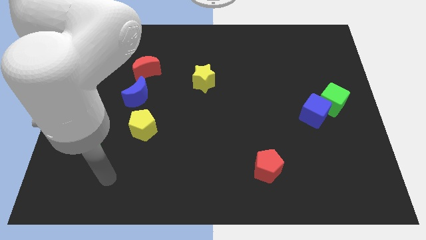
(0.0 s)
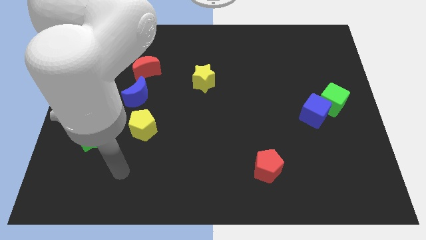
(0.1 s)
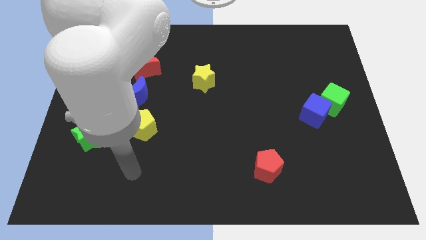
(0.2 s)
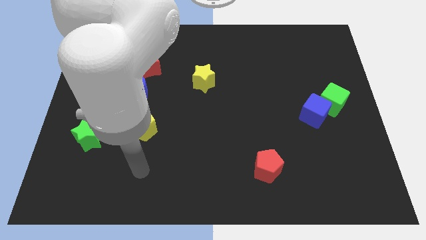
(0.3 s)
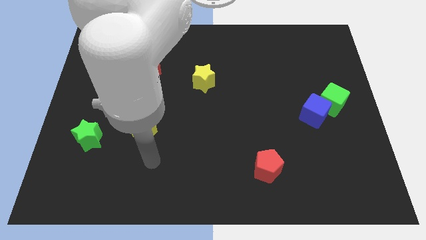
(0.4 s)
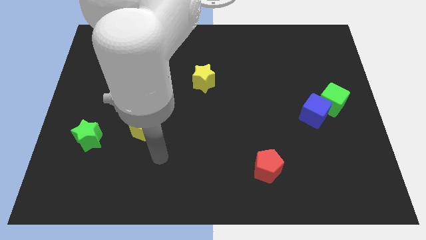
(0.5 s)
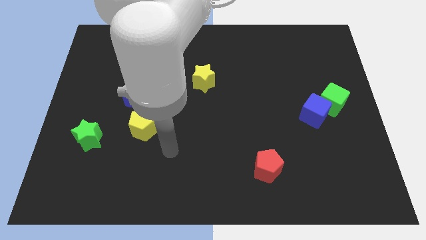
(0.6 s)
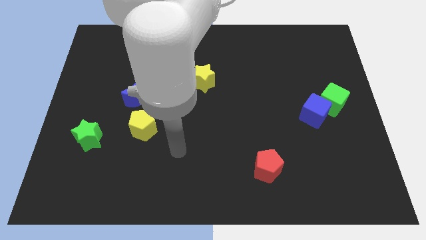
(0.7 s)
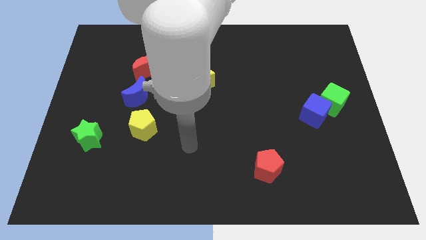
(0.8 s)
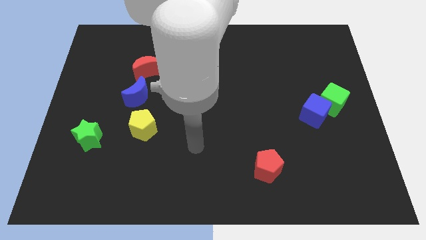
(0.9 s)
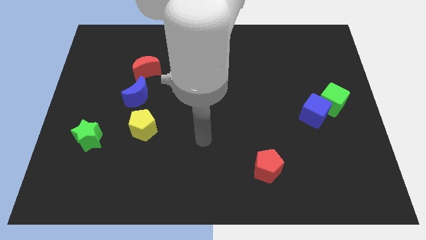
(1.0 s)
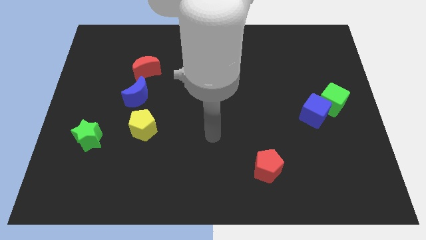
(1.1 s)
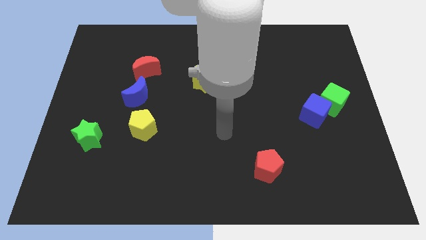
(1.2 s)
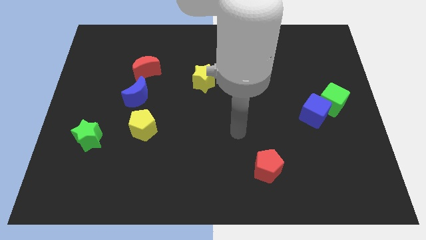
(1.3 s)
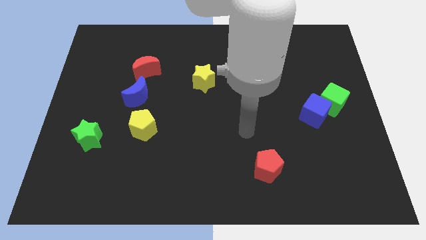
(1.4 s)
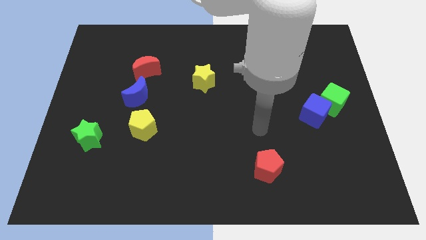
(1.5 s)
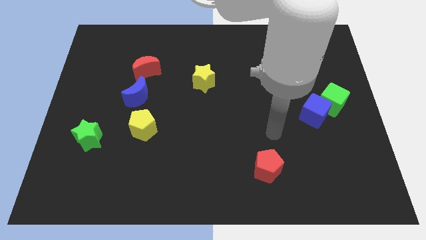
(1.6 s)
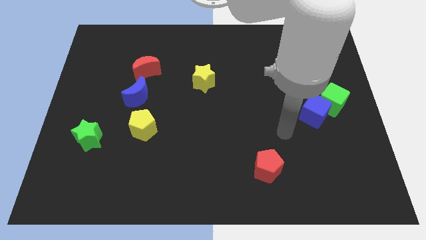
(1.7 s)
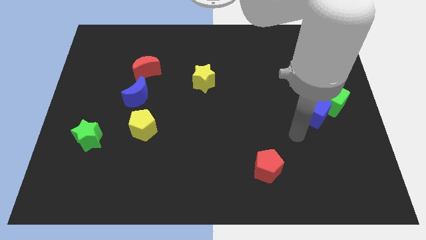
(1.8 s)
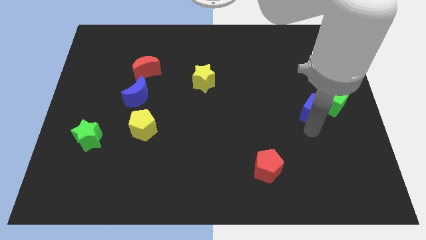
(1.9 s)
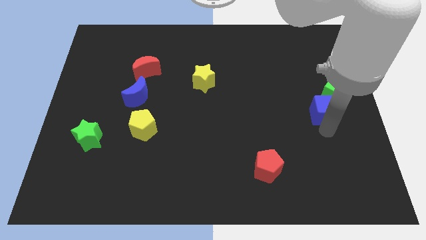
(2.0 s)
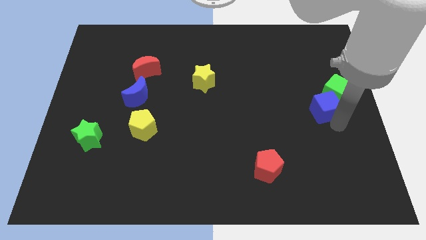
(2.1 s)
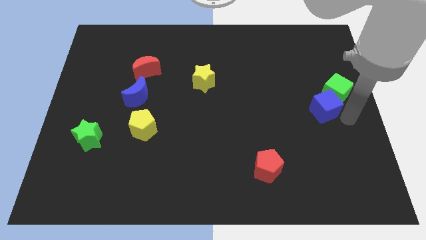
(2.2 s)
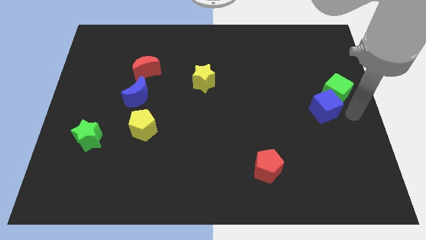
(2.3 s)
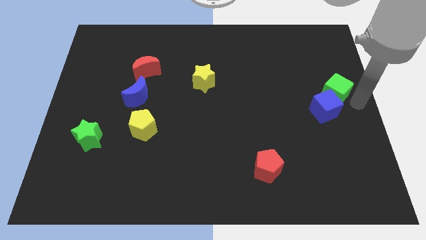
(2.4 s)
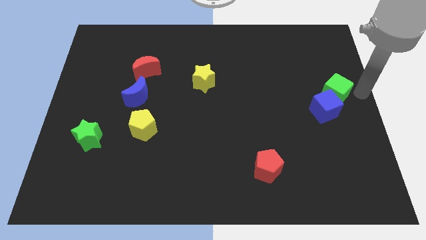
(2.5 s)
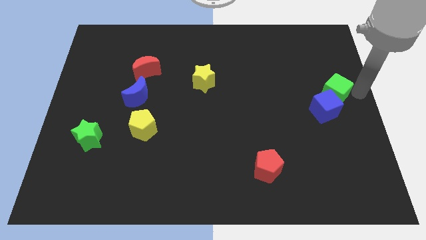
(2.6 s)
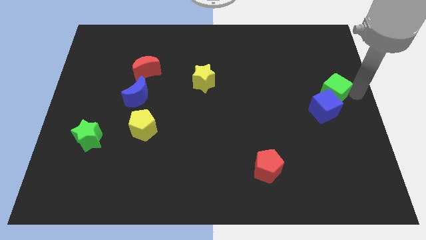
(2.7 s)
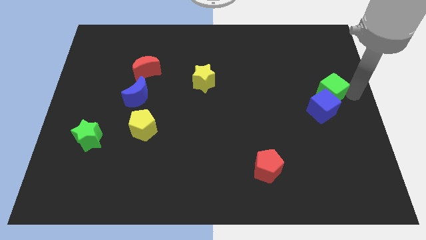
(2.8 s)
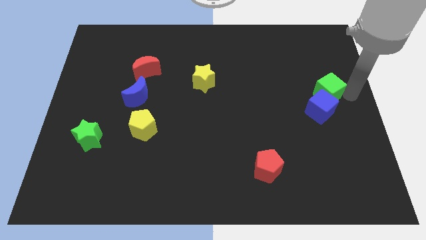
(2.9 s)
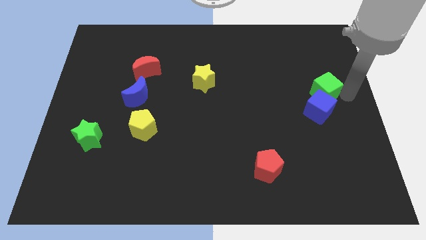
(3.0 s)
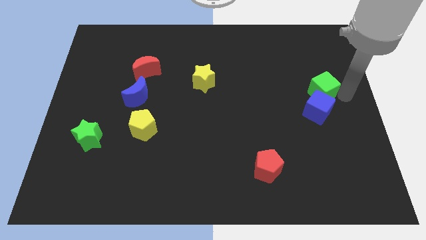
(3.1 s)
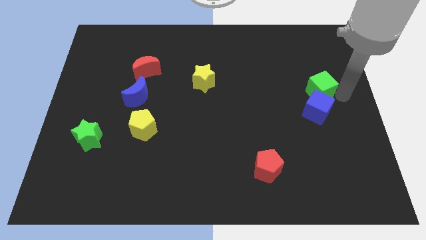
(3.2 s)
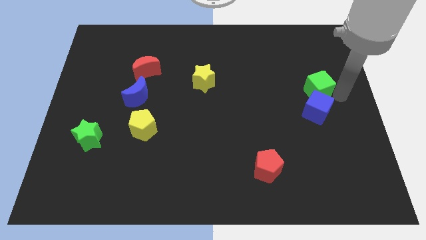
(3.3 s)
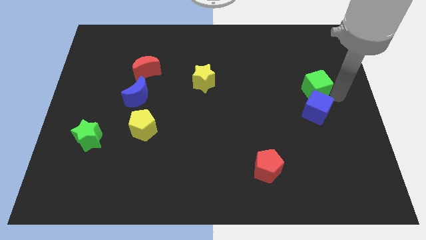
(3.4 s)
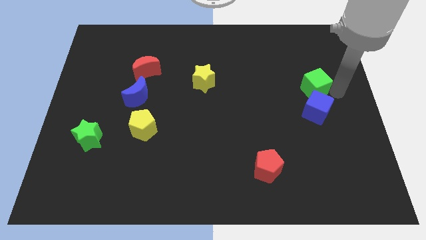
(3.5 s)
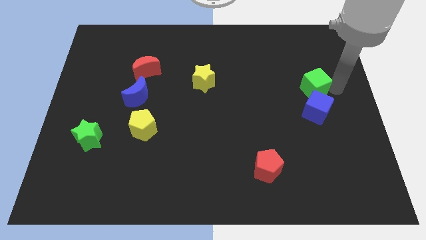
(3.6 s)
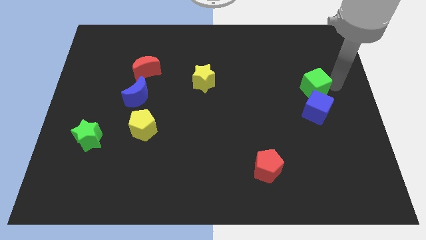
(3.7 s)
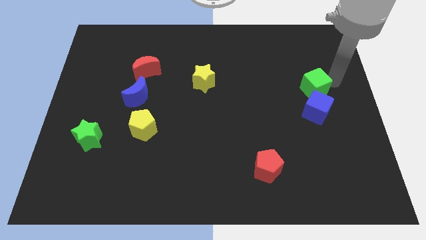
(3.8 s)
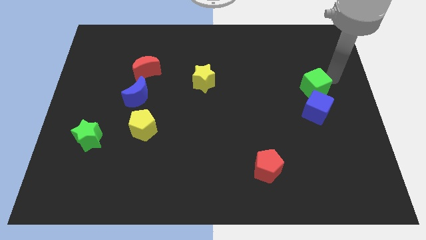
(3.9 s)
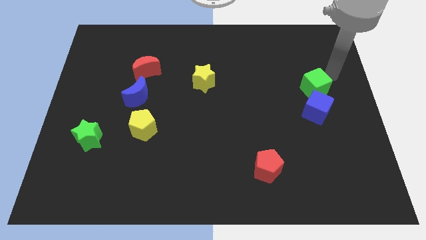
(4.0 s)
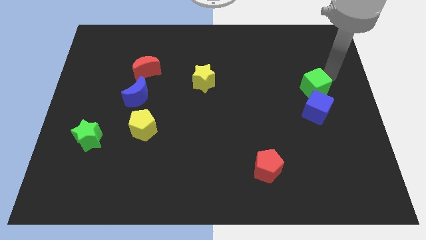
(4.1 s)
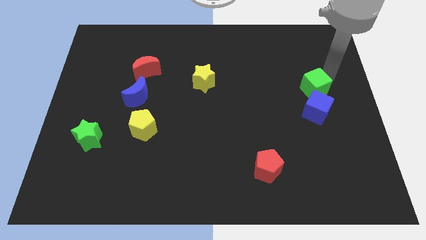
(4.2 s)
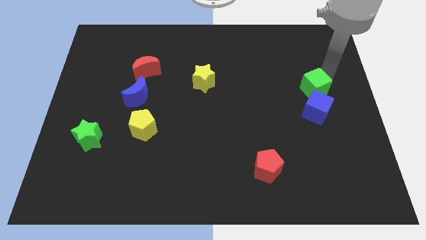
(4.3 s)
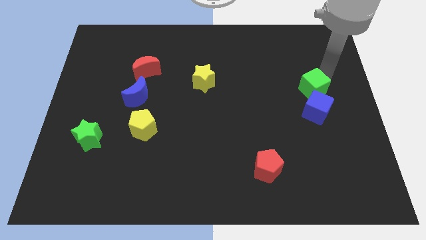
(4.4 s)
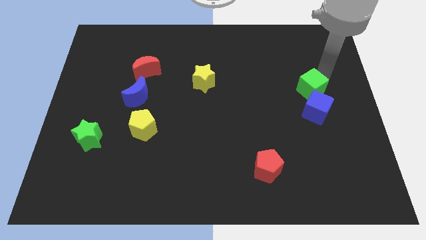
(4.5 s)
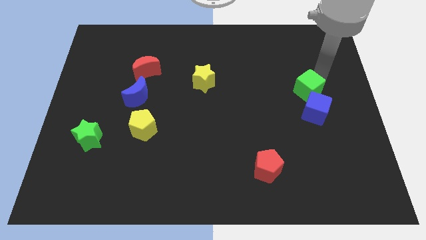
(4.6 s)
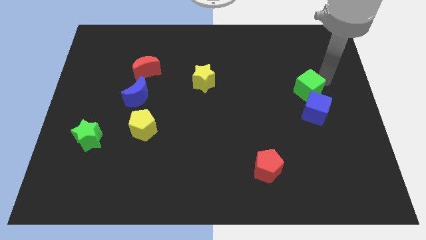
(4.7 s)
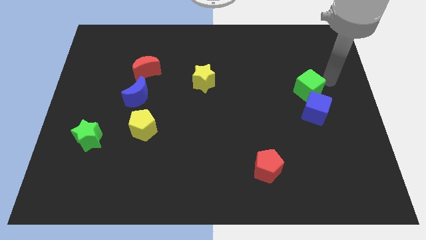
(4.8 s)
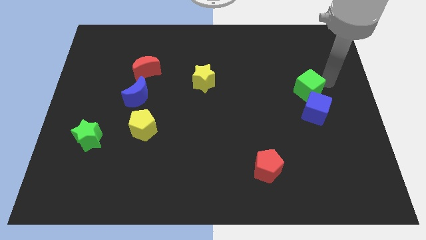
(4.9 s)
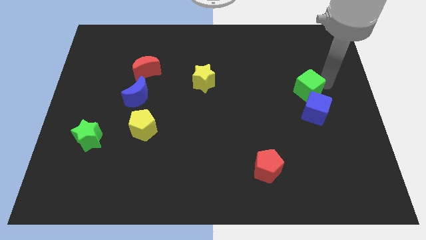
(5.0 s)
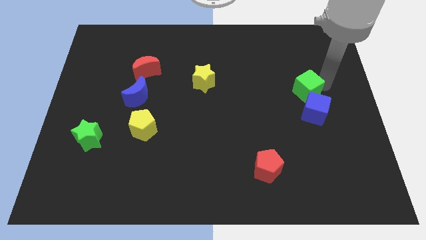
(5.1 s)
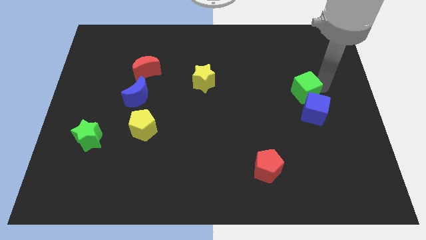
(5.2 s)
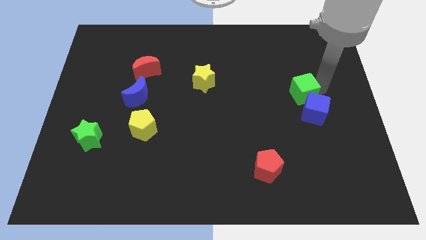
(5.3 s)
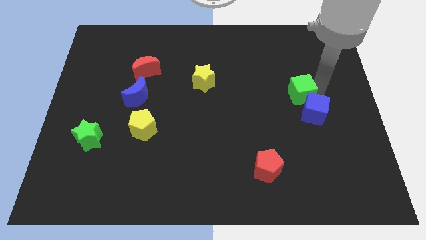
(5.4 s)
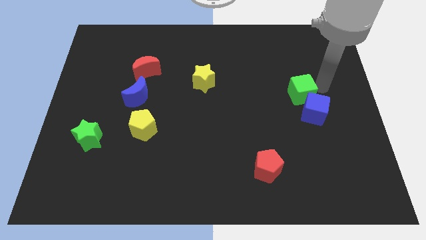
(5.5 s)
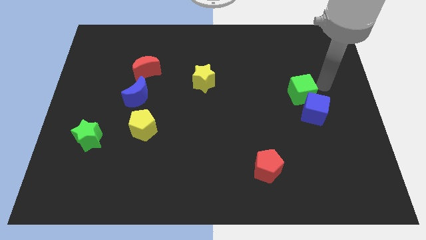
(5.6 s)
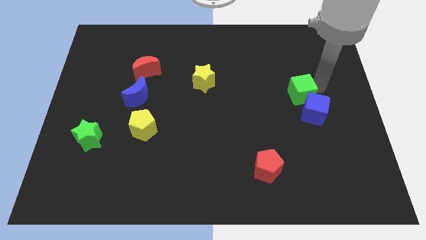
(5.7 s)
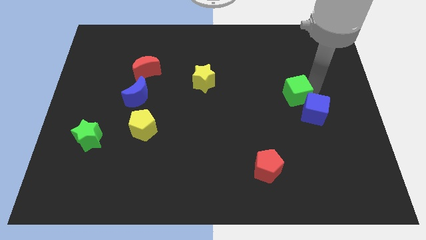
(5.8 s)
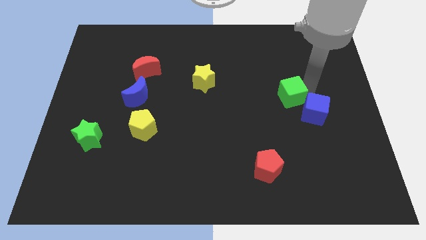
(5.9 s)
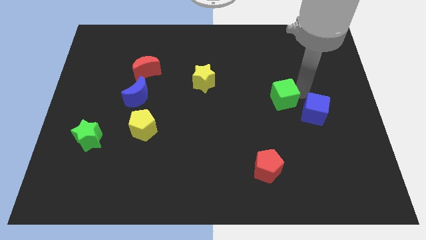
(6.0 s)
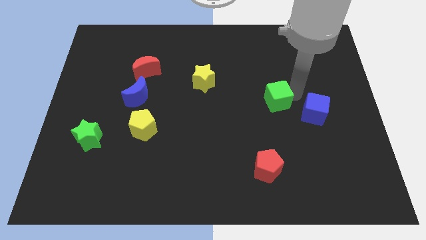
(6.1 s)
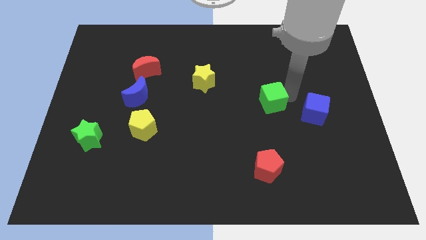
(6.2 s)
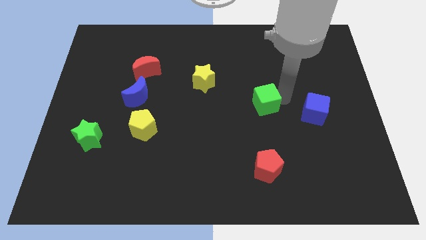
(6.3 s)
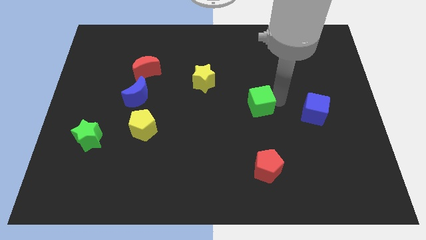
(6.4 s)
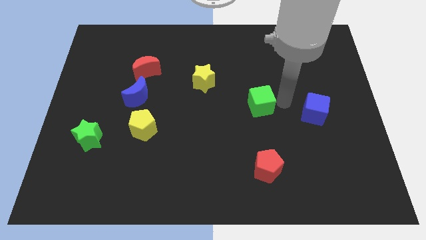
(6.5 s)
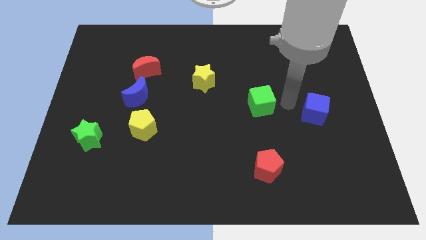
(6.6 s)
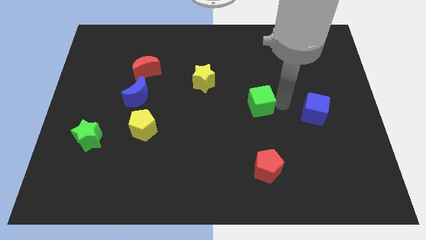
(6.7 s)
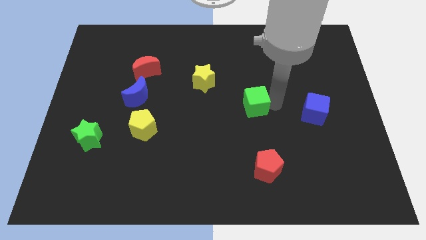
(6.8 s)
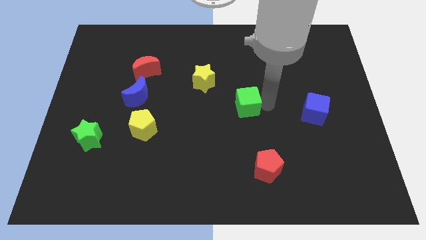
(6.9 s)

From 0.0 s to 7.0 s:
slide the green cube left

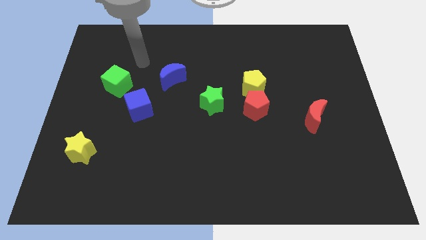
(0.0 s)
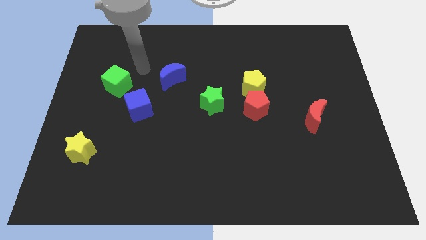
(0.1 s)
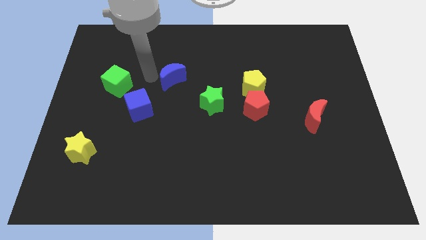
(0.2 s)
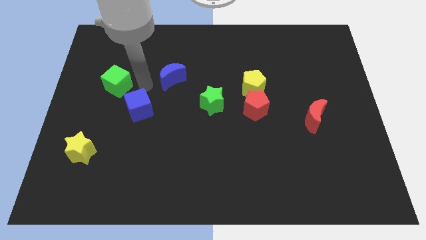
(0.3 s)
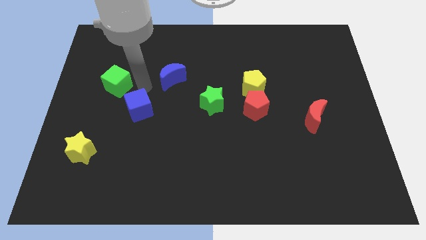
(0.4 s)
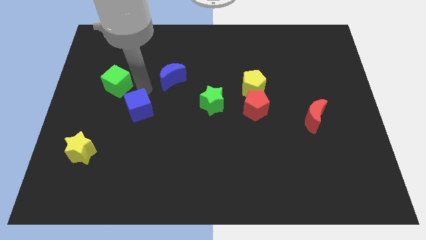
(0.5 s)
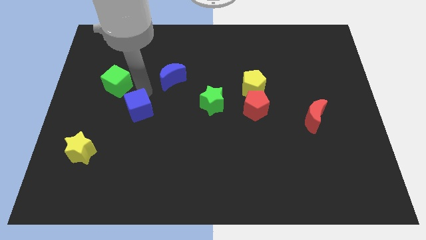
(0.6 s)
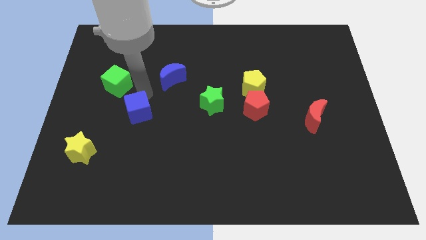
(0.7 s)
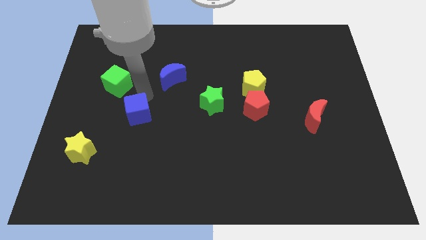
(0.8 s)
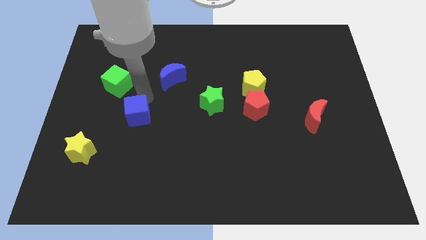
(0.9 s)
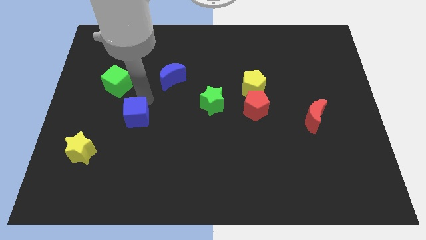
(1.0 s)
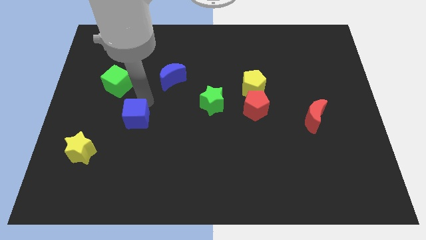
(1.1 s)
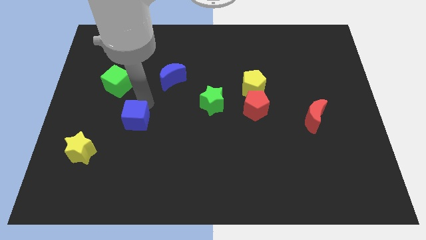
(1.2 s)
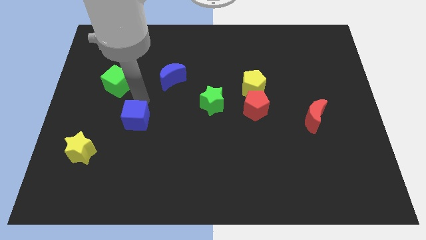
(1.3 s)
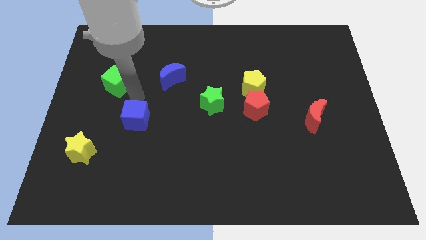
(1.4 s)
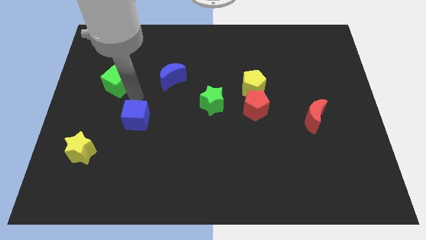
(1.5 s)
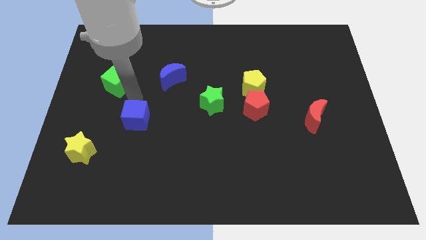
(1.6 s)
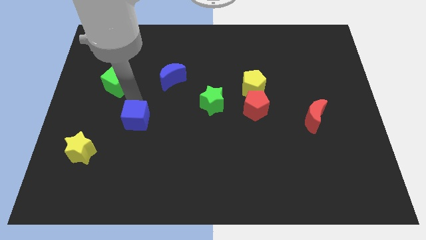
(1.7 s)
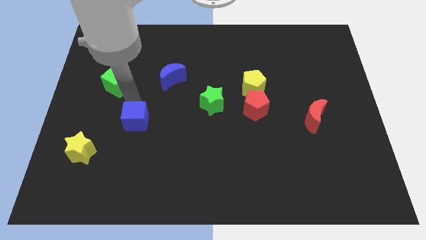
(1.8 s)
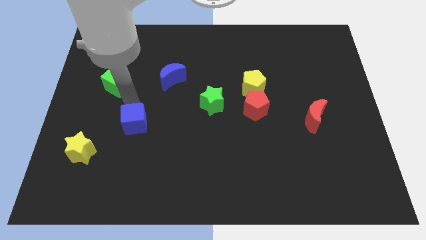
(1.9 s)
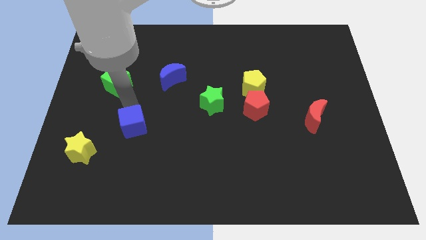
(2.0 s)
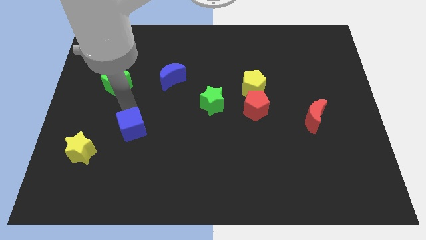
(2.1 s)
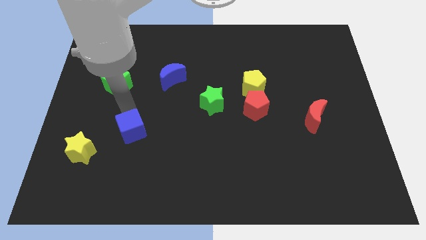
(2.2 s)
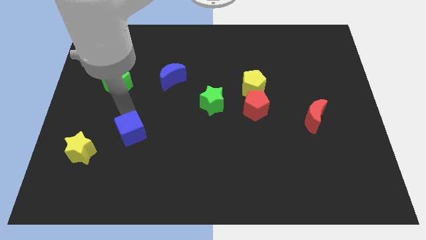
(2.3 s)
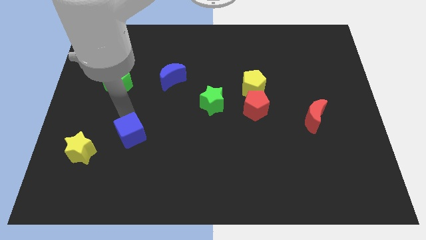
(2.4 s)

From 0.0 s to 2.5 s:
slide the blue cube a little bit downwards
